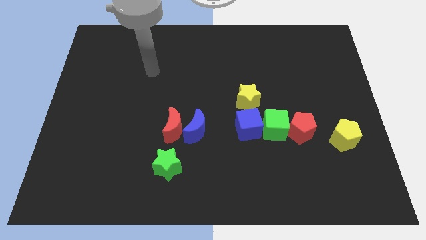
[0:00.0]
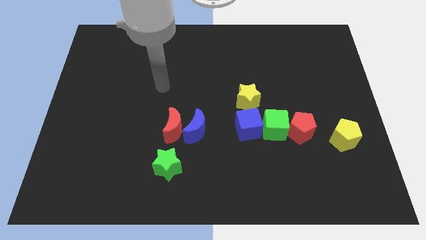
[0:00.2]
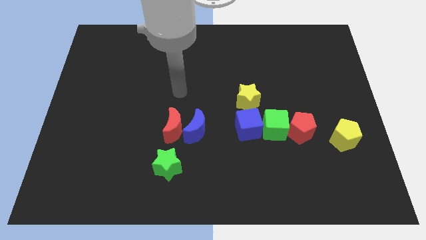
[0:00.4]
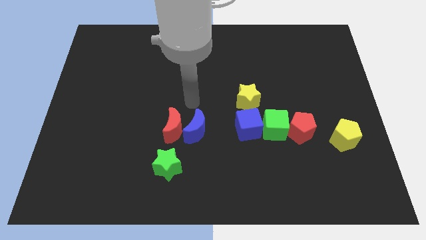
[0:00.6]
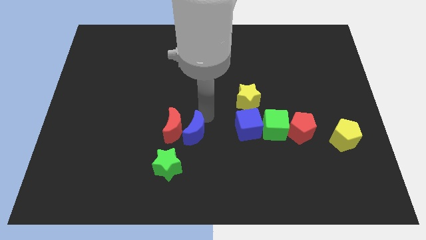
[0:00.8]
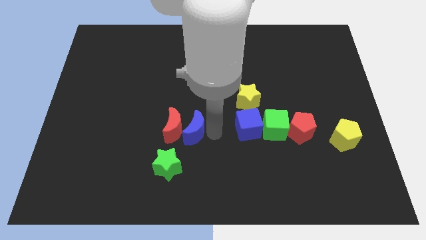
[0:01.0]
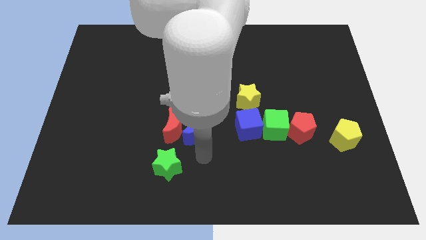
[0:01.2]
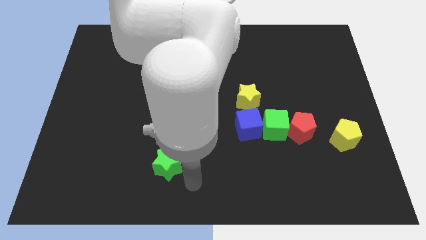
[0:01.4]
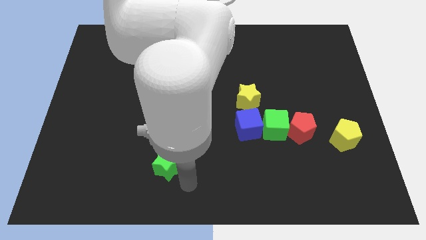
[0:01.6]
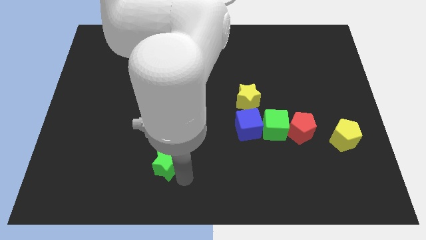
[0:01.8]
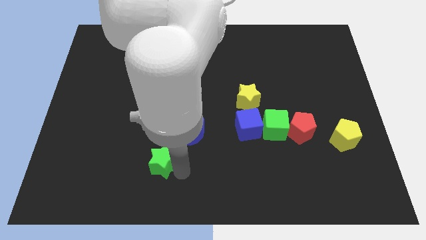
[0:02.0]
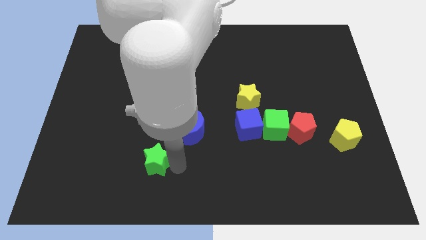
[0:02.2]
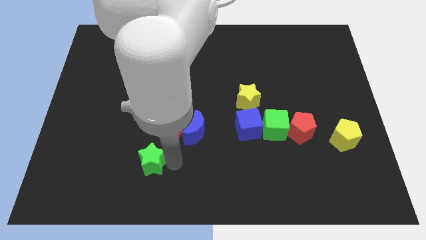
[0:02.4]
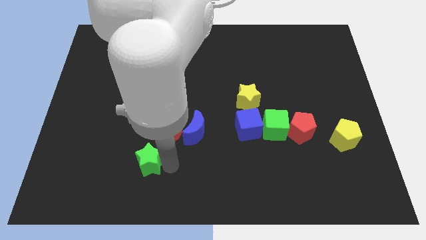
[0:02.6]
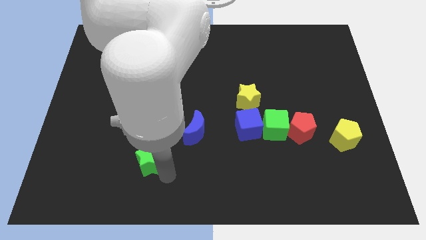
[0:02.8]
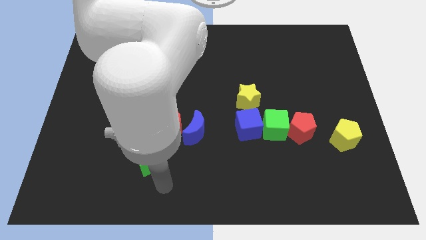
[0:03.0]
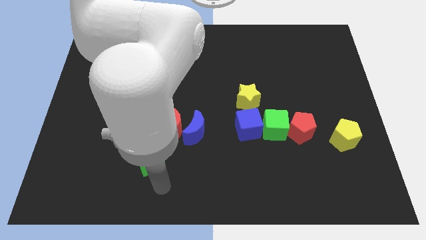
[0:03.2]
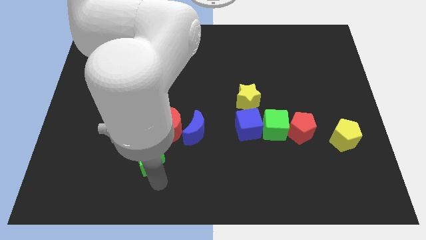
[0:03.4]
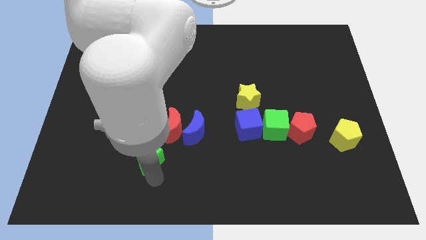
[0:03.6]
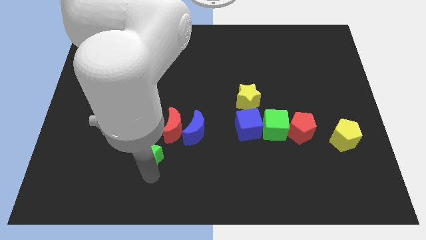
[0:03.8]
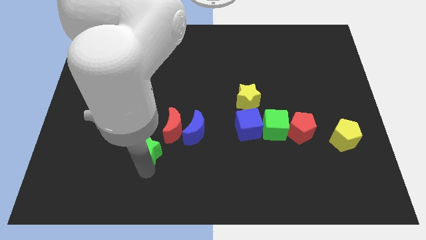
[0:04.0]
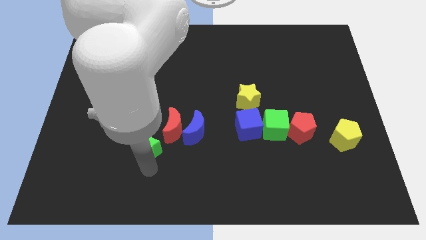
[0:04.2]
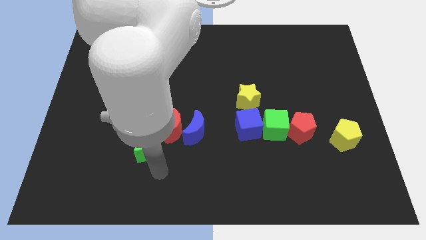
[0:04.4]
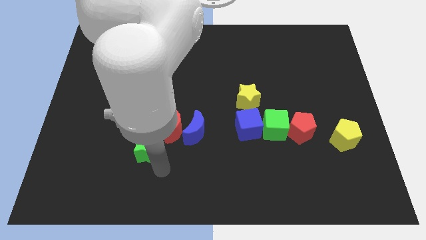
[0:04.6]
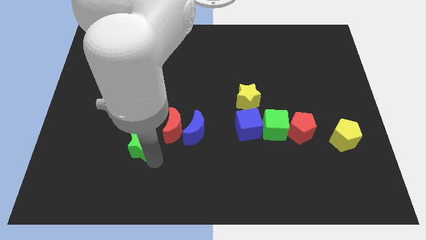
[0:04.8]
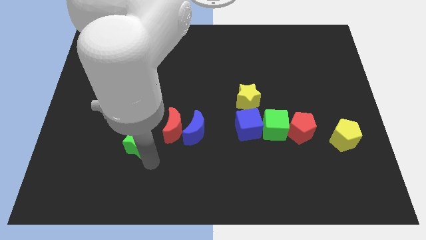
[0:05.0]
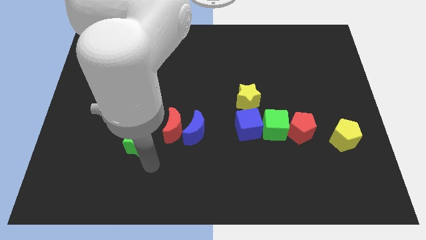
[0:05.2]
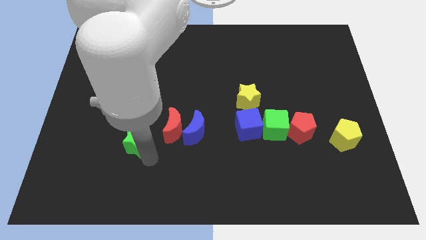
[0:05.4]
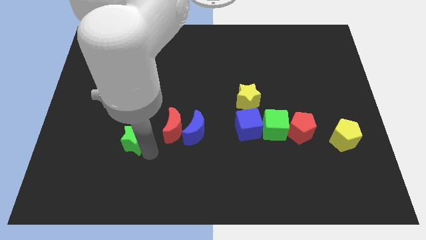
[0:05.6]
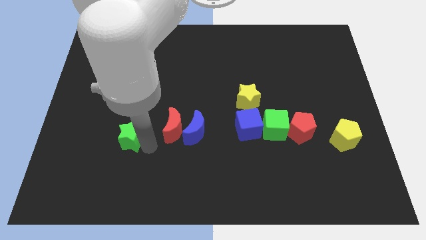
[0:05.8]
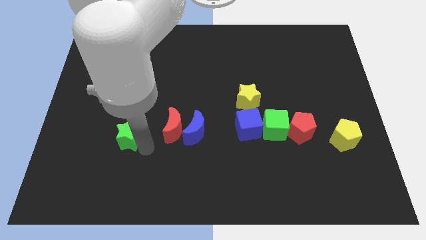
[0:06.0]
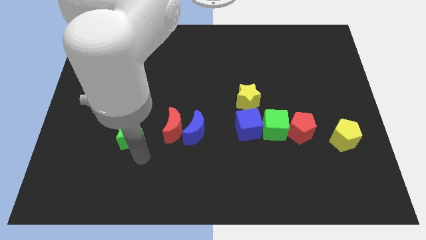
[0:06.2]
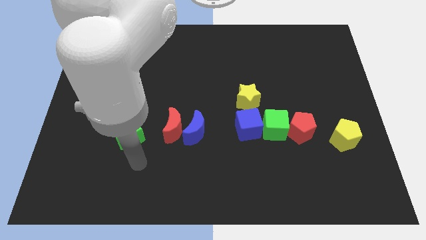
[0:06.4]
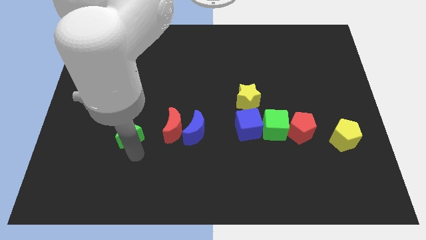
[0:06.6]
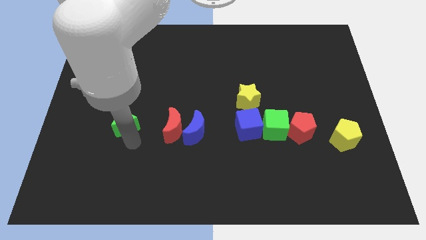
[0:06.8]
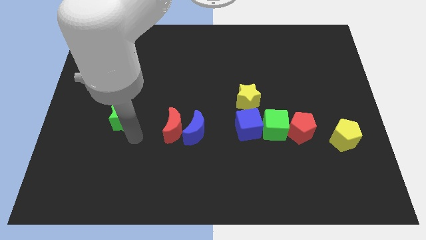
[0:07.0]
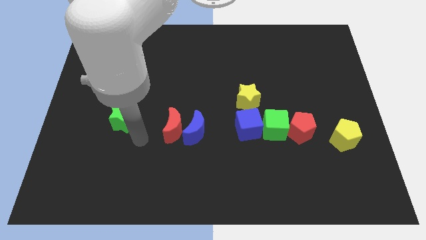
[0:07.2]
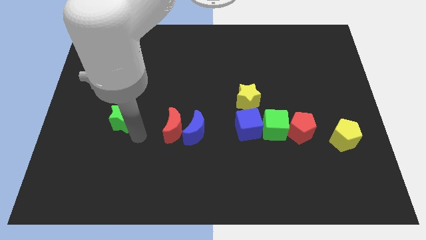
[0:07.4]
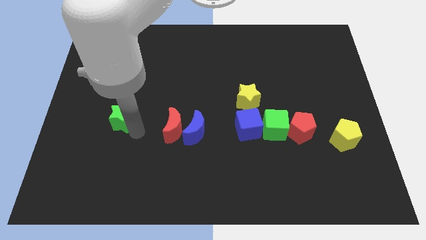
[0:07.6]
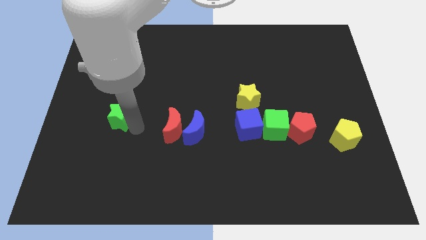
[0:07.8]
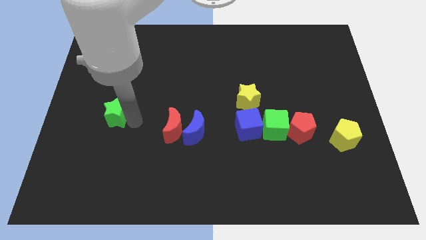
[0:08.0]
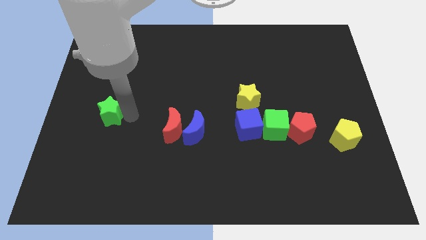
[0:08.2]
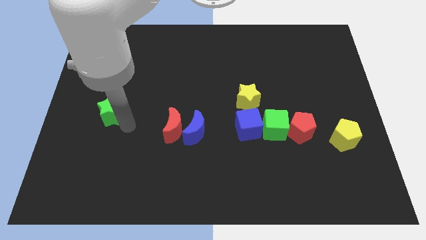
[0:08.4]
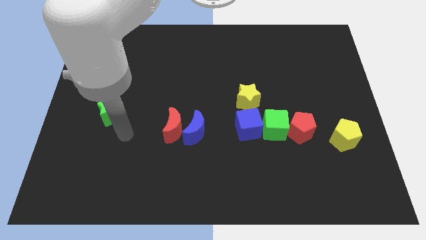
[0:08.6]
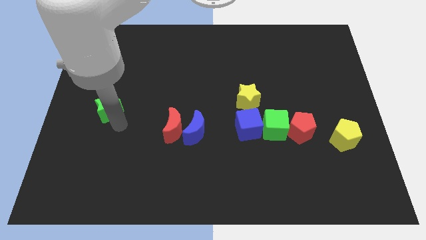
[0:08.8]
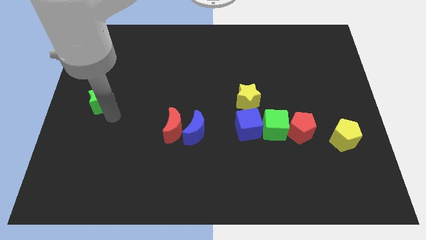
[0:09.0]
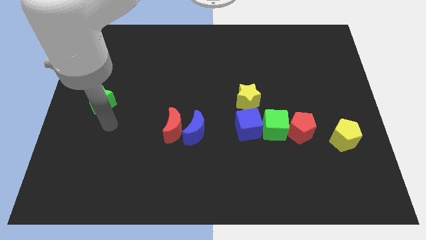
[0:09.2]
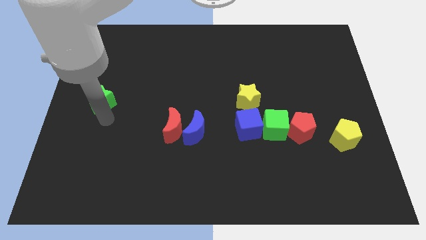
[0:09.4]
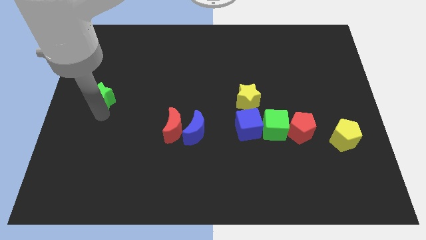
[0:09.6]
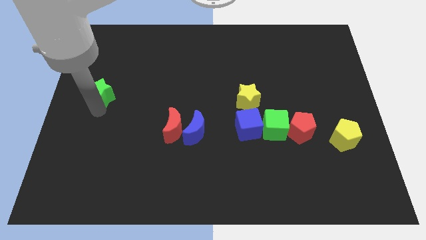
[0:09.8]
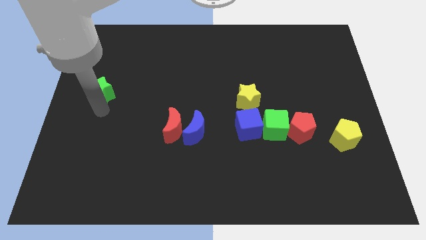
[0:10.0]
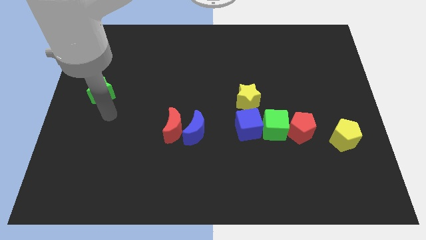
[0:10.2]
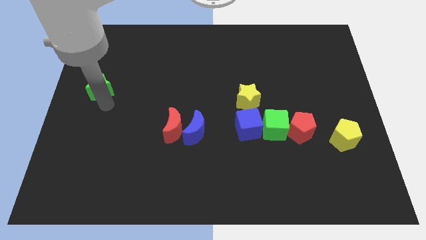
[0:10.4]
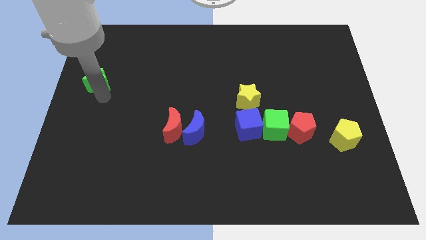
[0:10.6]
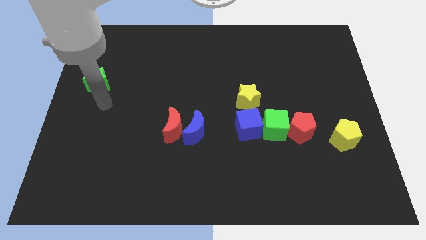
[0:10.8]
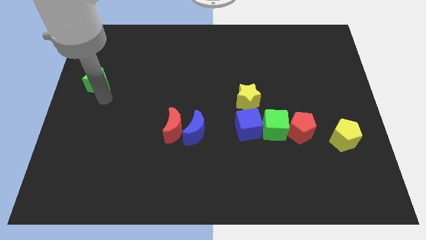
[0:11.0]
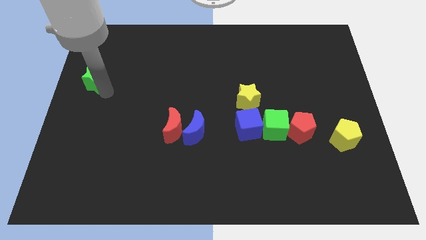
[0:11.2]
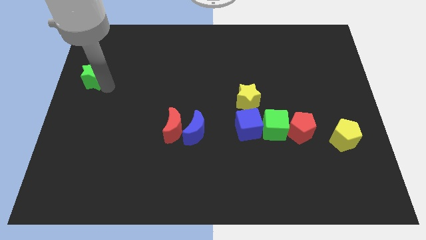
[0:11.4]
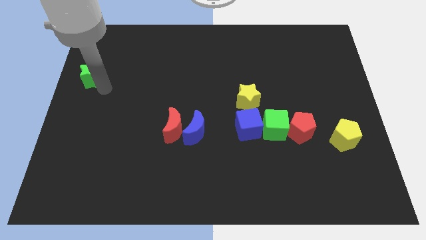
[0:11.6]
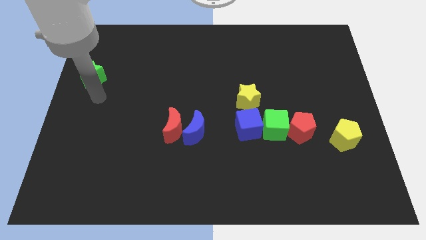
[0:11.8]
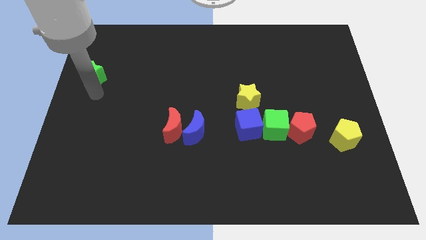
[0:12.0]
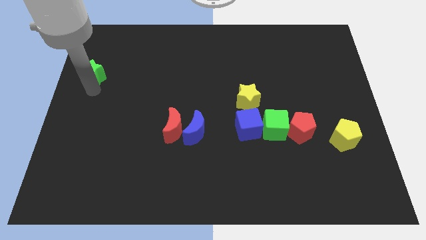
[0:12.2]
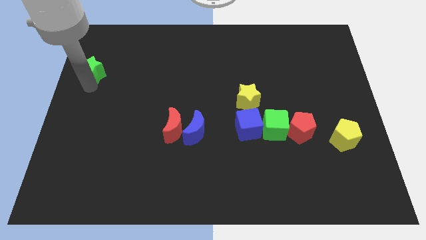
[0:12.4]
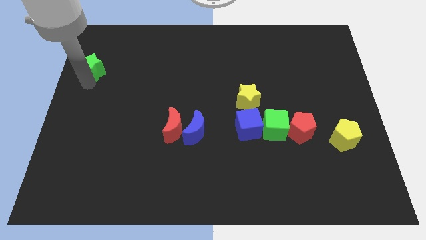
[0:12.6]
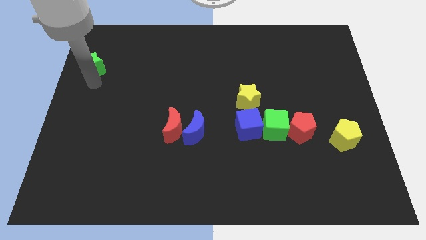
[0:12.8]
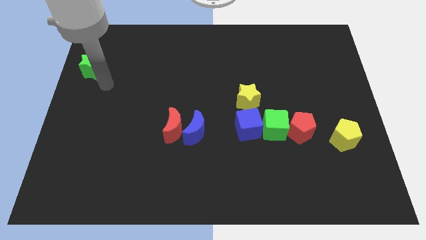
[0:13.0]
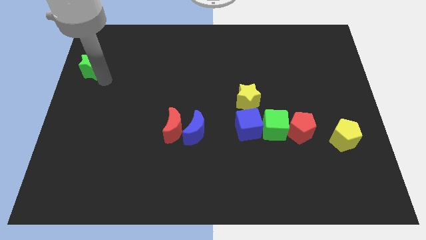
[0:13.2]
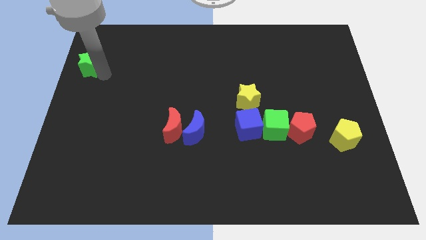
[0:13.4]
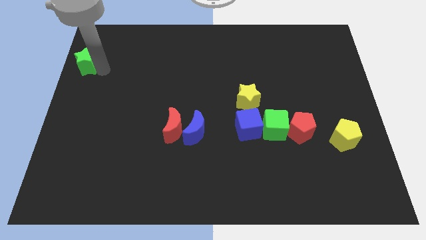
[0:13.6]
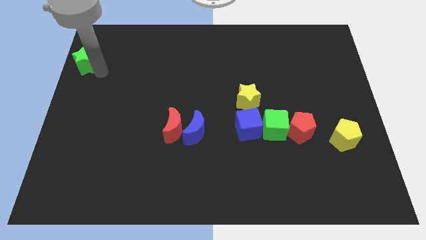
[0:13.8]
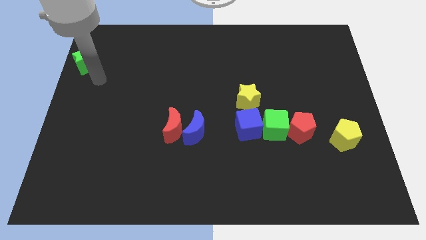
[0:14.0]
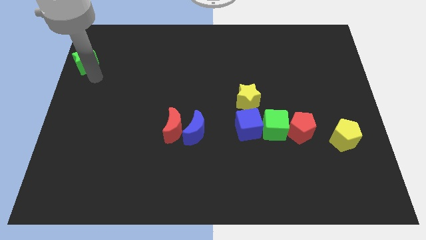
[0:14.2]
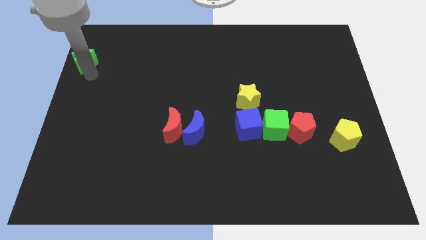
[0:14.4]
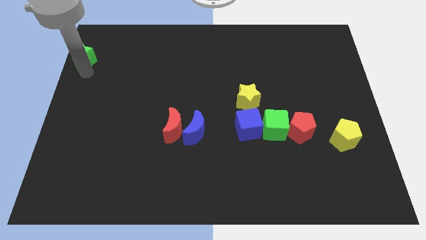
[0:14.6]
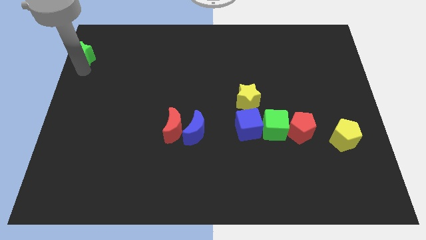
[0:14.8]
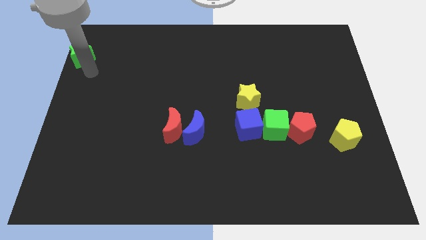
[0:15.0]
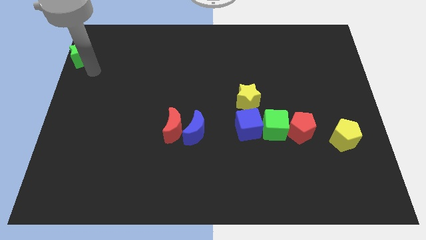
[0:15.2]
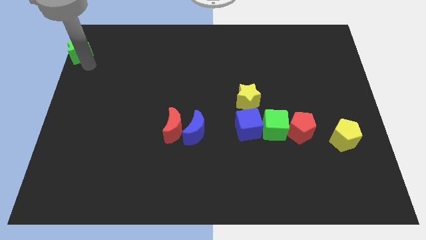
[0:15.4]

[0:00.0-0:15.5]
put the green star to the upper left corner
